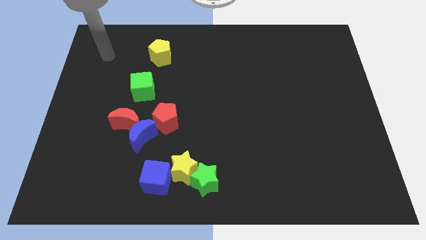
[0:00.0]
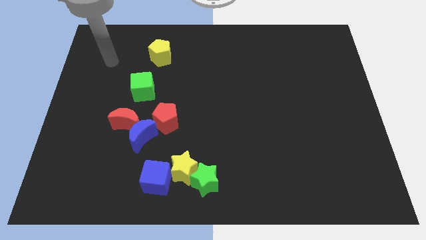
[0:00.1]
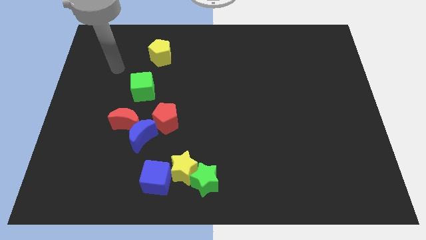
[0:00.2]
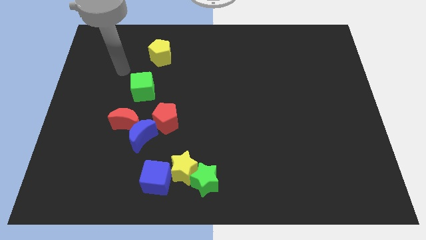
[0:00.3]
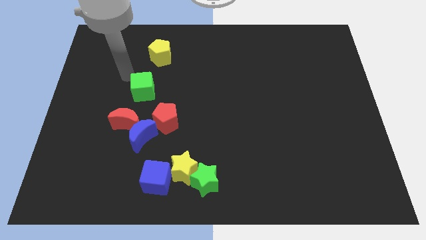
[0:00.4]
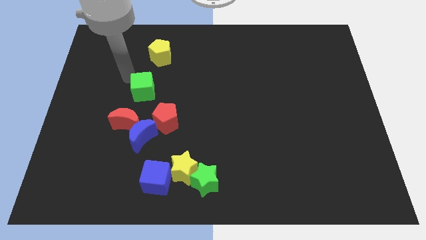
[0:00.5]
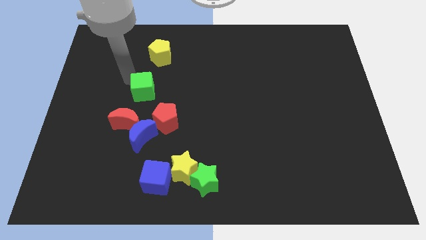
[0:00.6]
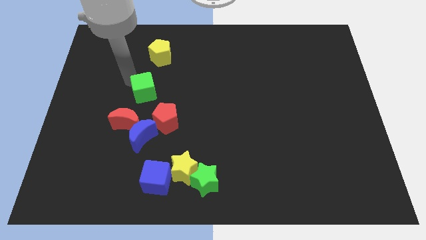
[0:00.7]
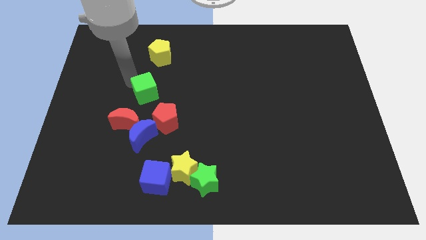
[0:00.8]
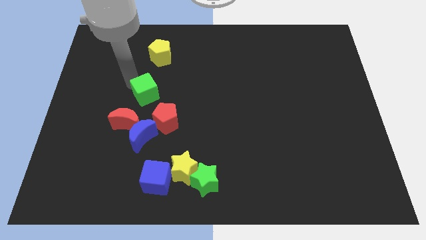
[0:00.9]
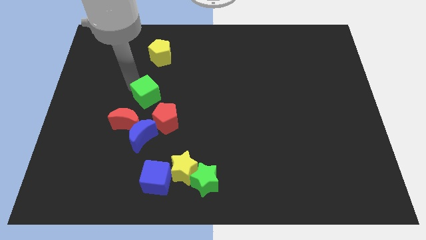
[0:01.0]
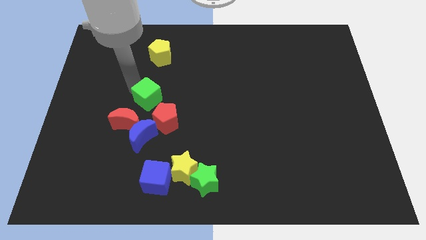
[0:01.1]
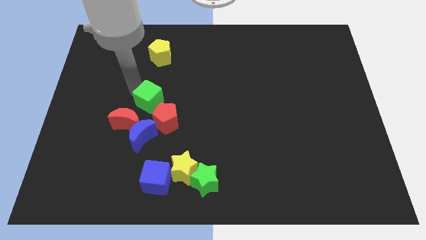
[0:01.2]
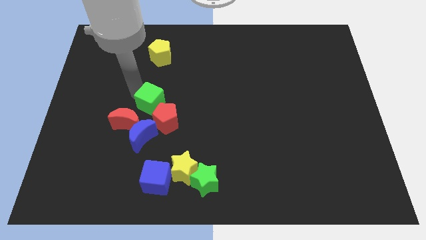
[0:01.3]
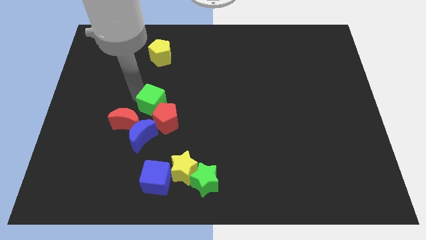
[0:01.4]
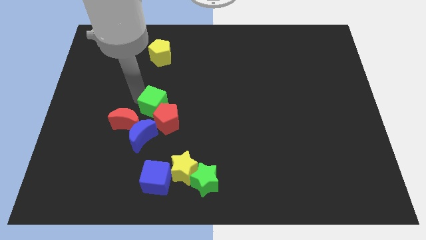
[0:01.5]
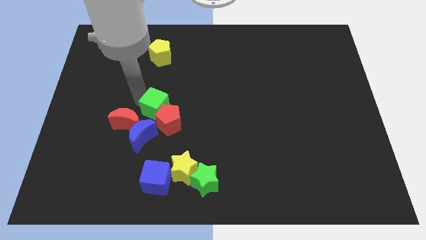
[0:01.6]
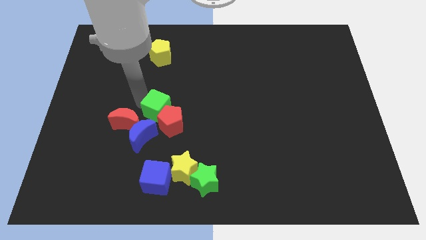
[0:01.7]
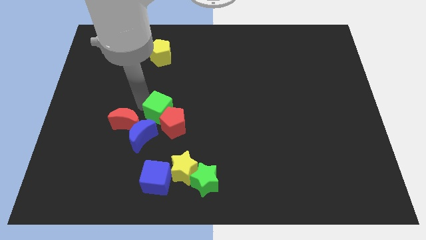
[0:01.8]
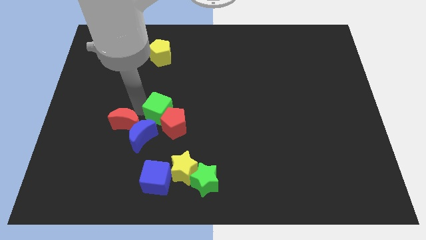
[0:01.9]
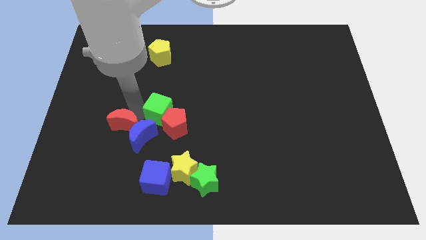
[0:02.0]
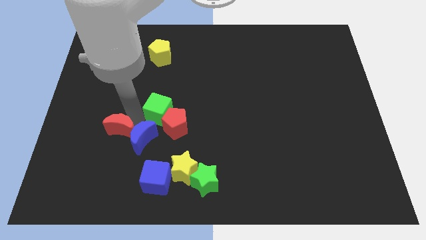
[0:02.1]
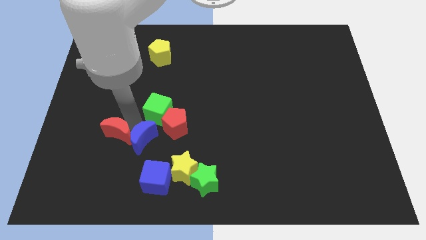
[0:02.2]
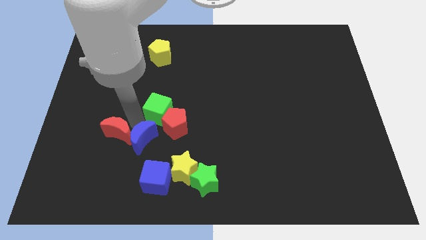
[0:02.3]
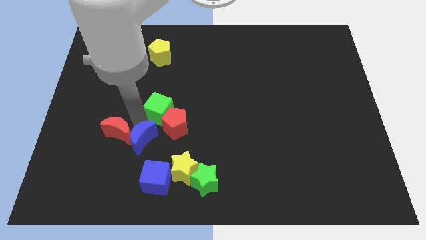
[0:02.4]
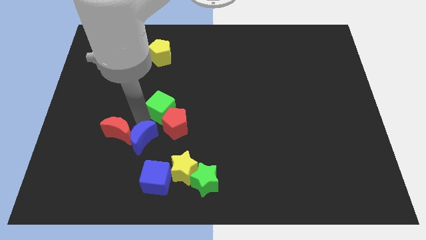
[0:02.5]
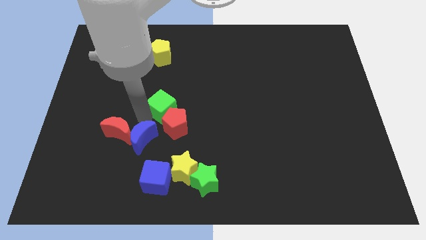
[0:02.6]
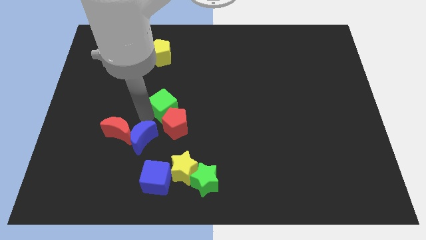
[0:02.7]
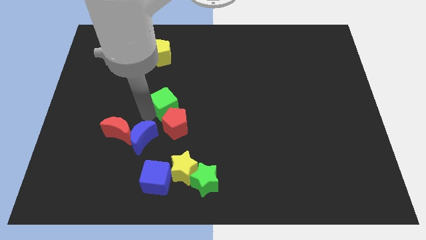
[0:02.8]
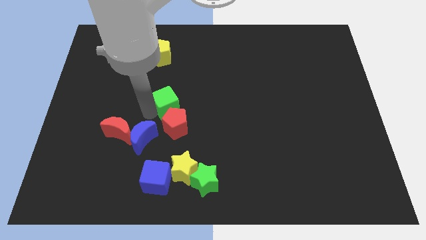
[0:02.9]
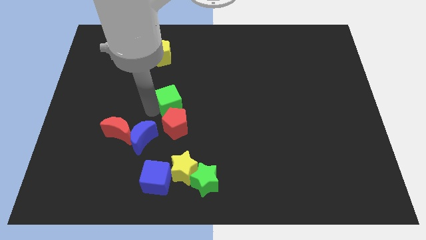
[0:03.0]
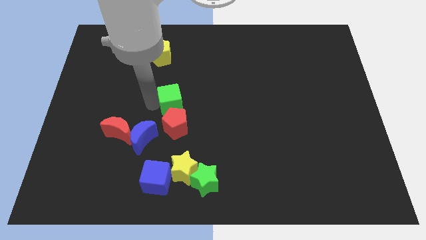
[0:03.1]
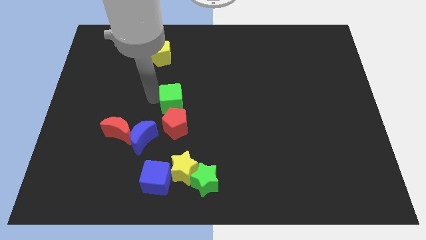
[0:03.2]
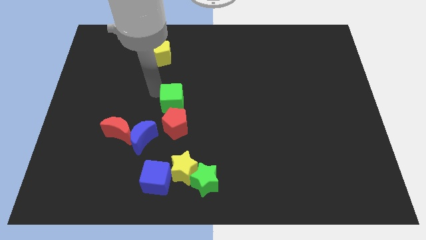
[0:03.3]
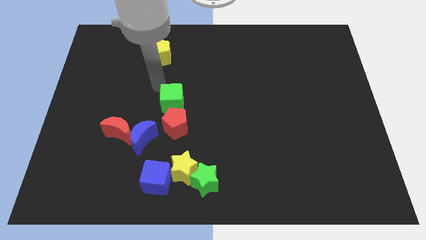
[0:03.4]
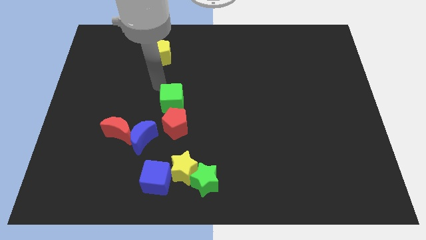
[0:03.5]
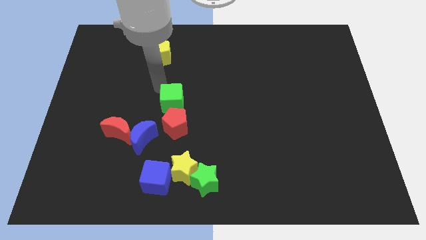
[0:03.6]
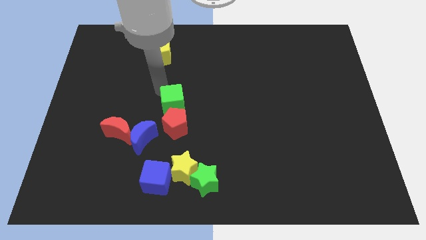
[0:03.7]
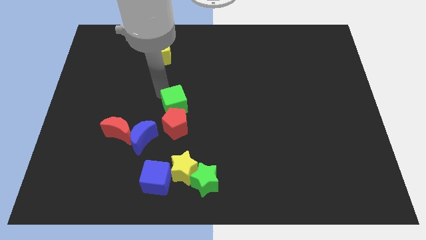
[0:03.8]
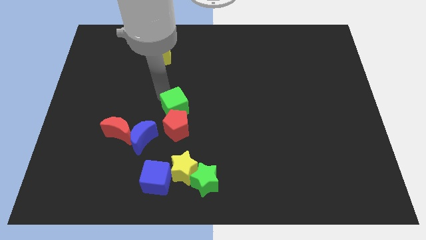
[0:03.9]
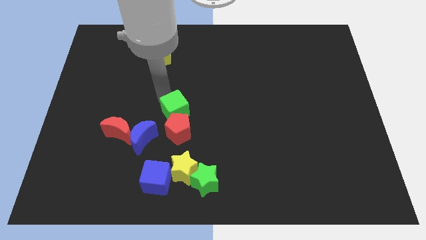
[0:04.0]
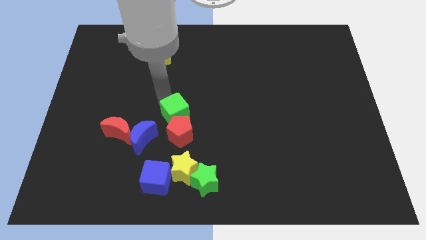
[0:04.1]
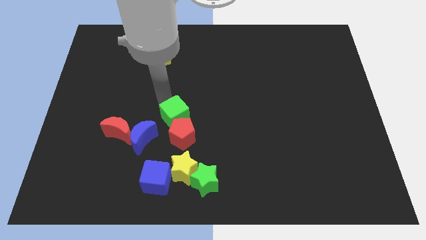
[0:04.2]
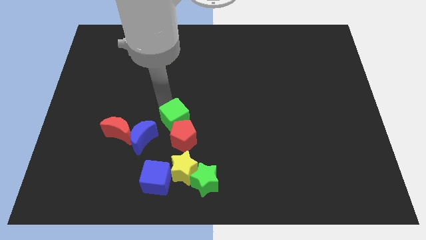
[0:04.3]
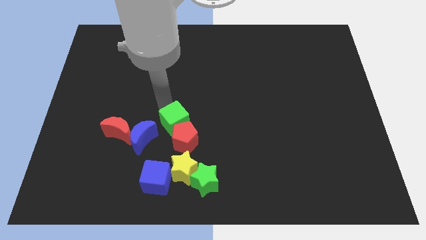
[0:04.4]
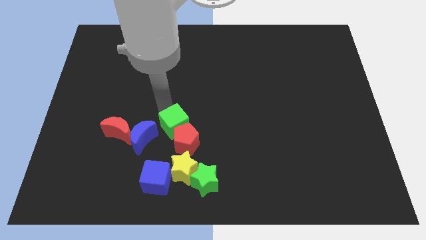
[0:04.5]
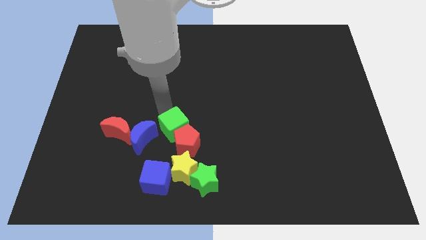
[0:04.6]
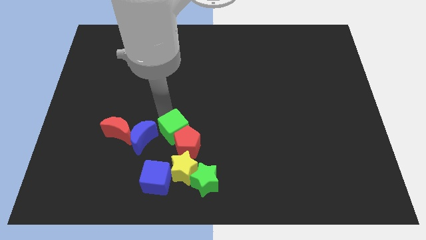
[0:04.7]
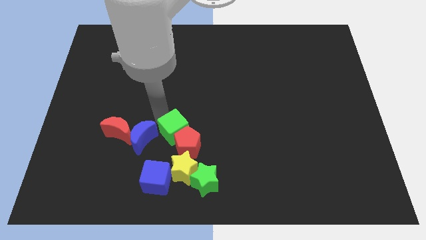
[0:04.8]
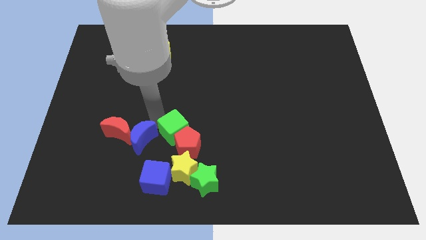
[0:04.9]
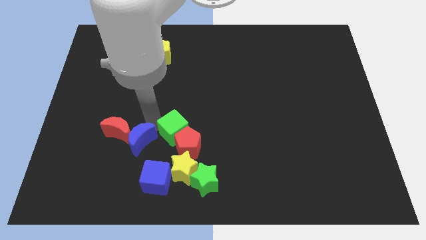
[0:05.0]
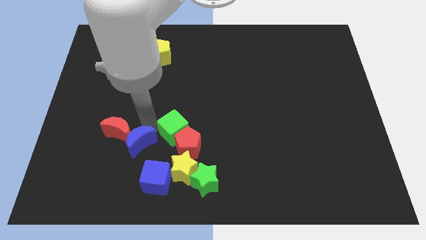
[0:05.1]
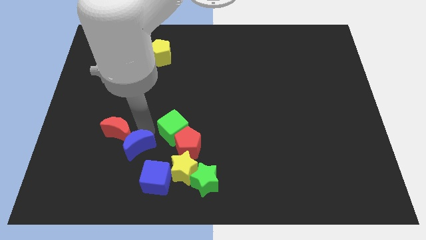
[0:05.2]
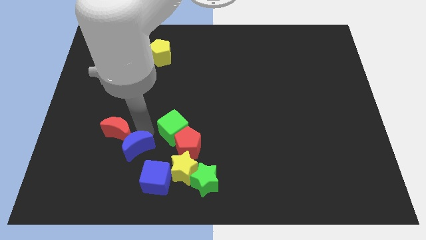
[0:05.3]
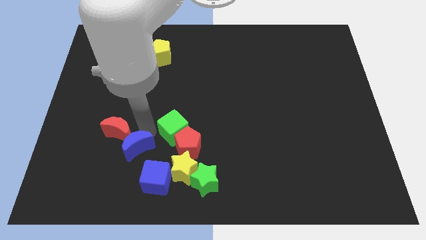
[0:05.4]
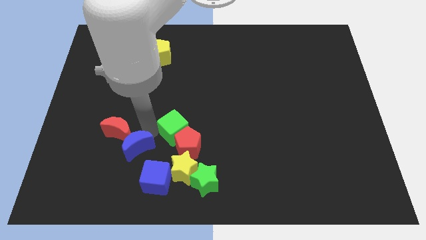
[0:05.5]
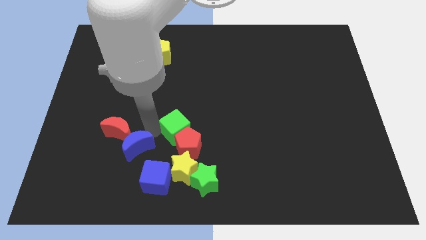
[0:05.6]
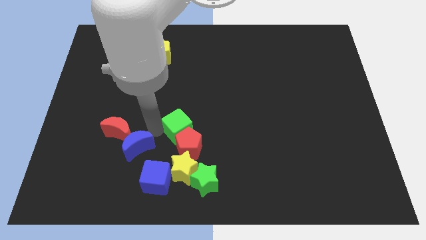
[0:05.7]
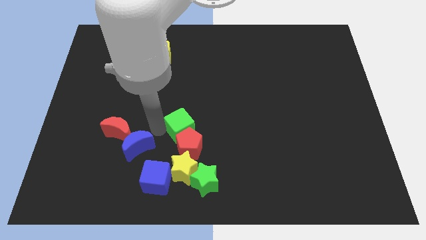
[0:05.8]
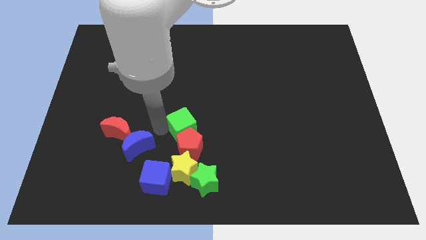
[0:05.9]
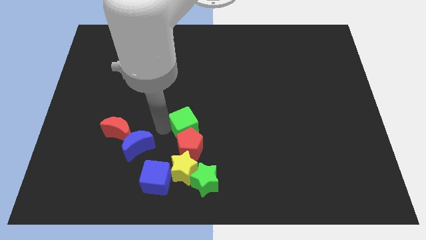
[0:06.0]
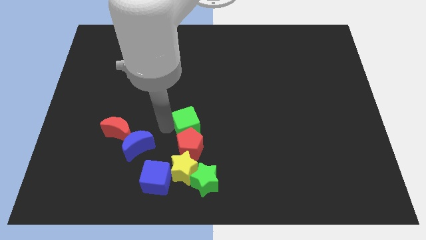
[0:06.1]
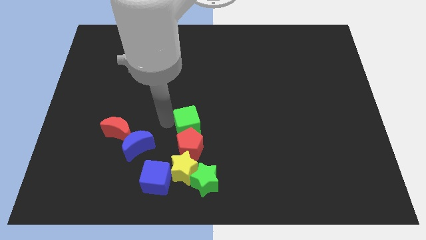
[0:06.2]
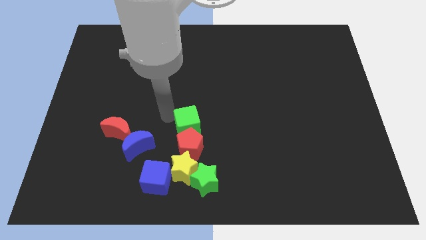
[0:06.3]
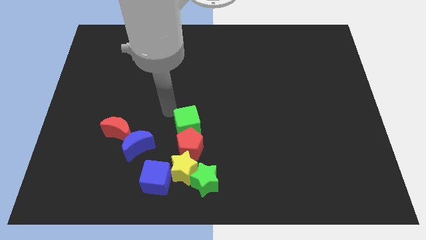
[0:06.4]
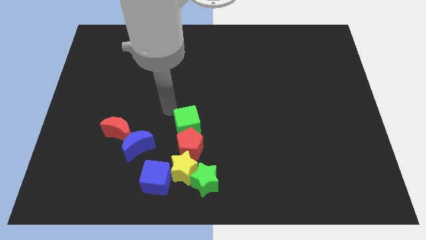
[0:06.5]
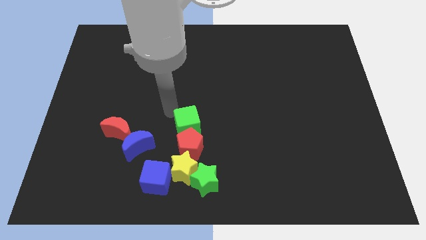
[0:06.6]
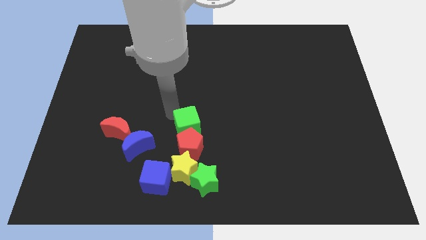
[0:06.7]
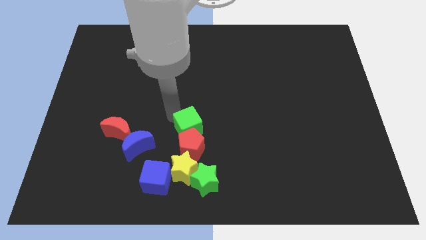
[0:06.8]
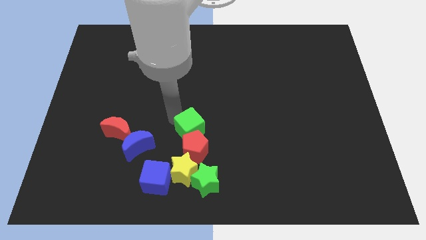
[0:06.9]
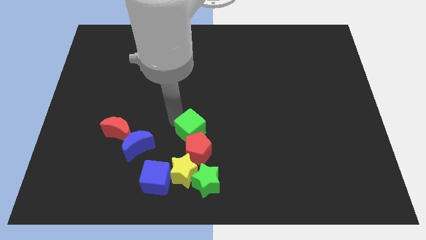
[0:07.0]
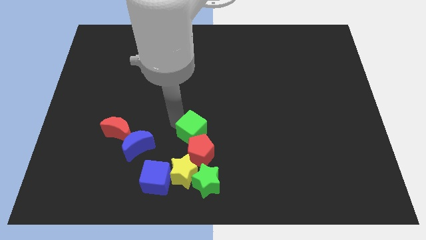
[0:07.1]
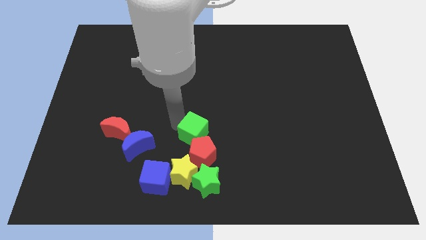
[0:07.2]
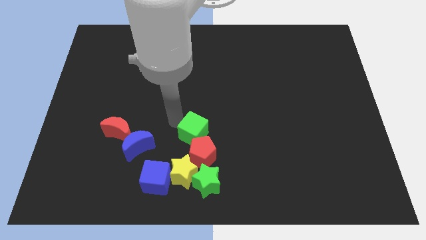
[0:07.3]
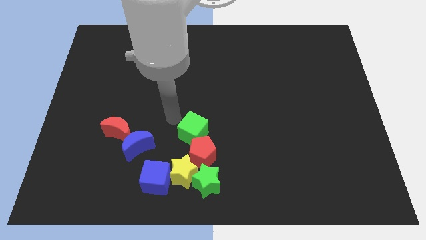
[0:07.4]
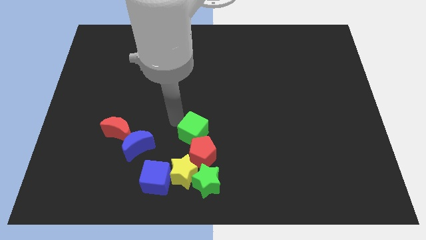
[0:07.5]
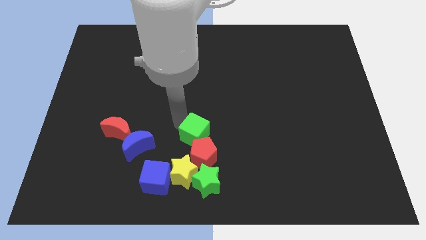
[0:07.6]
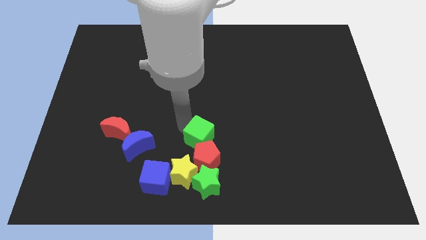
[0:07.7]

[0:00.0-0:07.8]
move the green cube down and to the right
